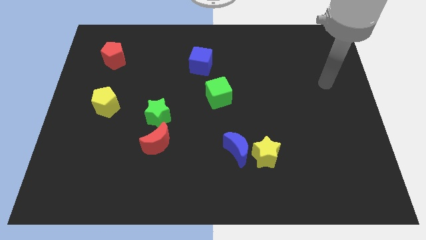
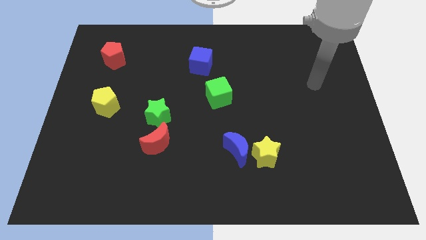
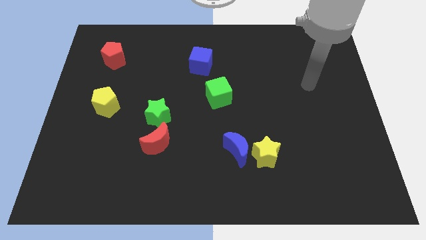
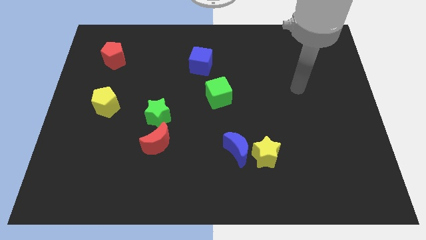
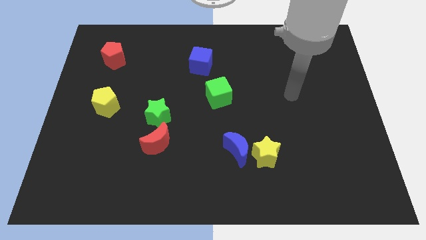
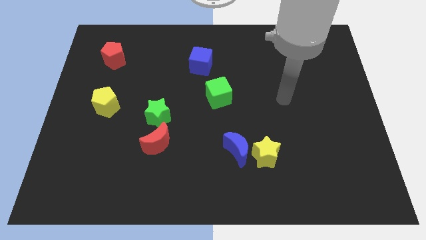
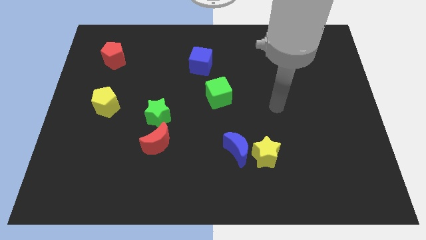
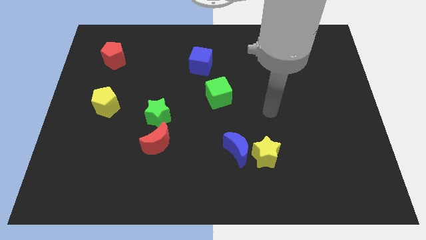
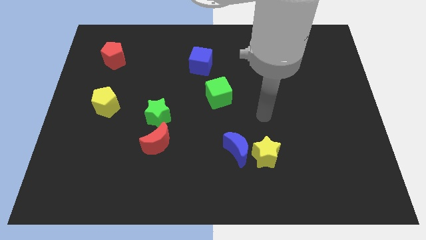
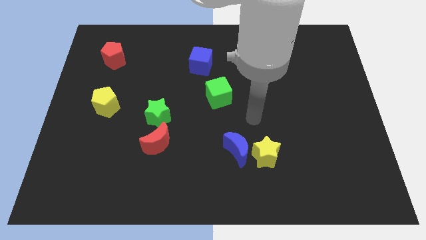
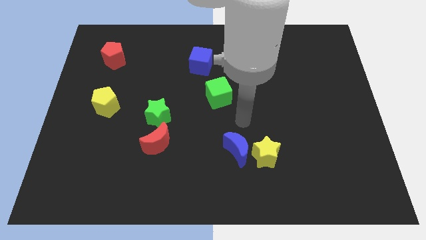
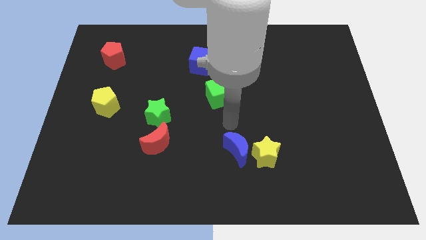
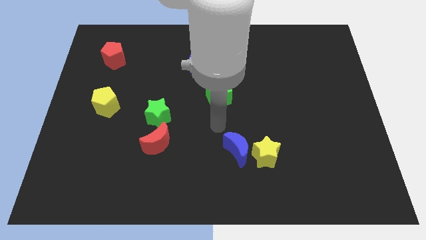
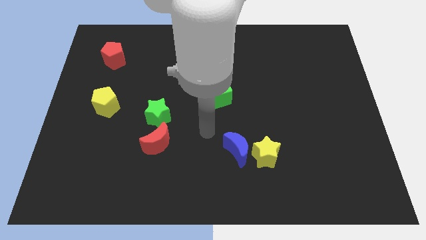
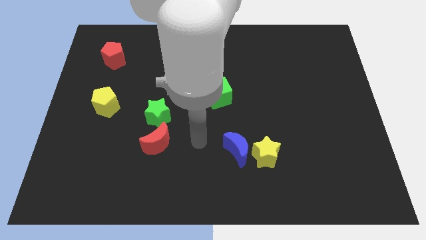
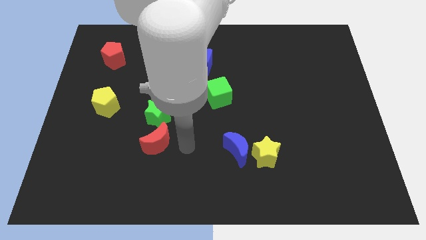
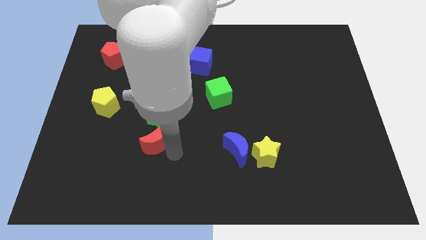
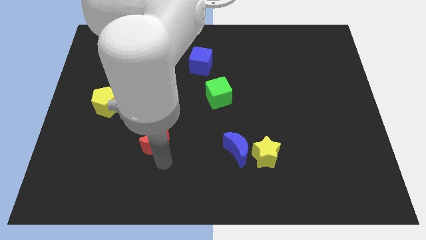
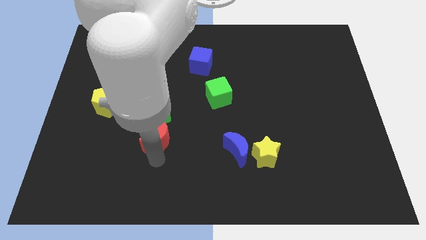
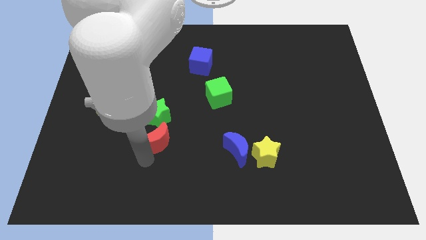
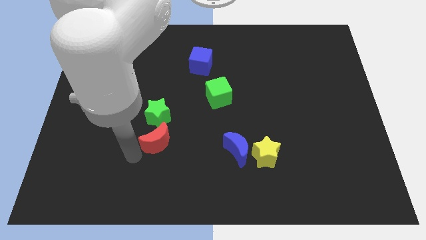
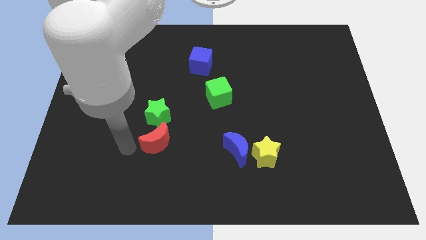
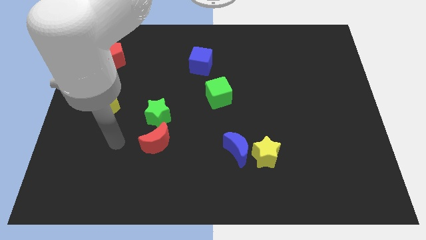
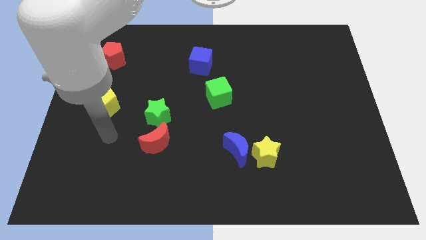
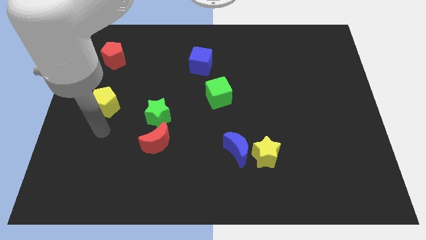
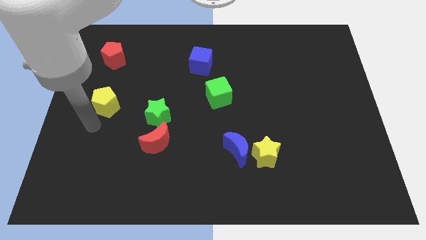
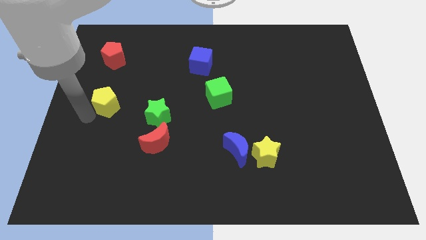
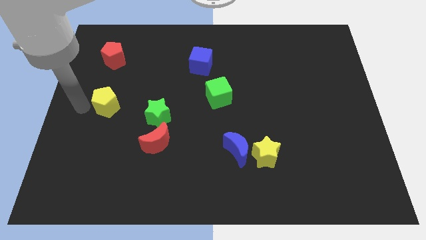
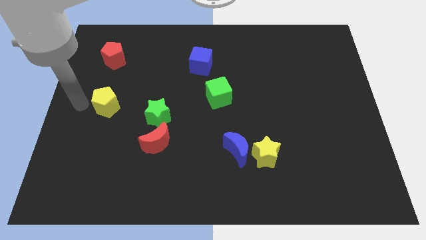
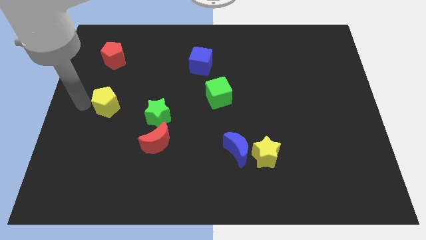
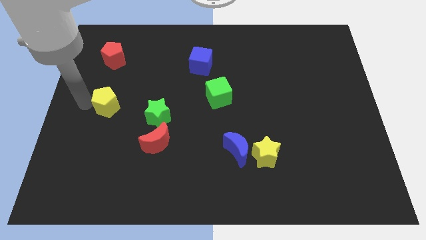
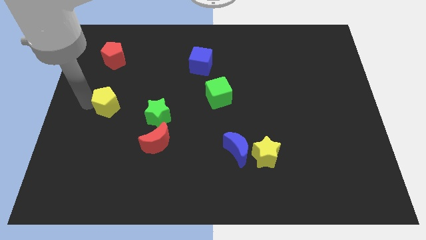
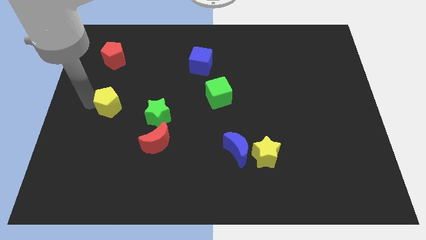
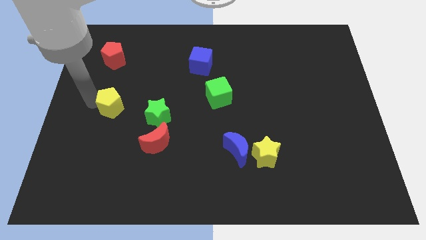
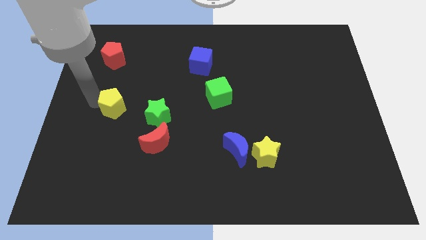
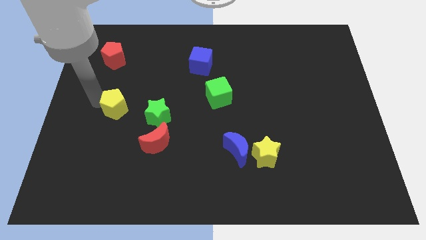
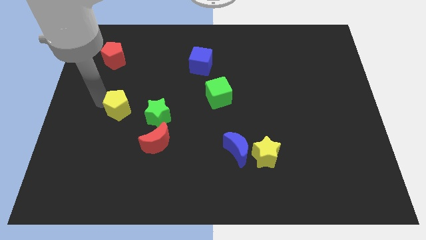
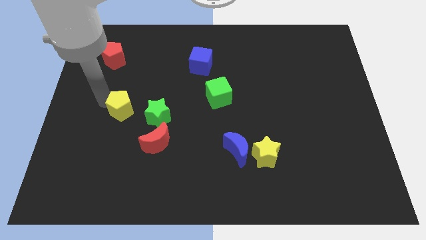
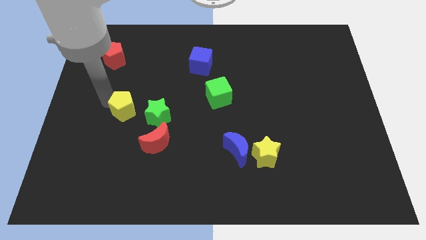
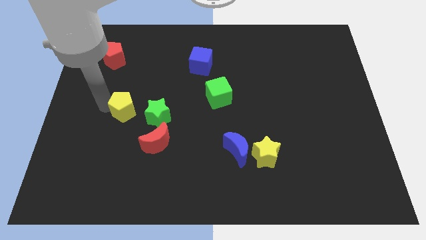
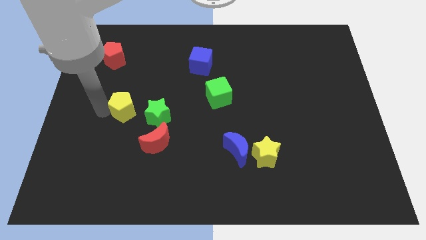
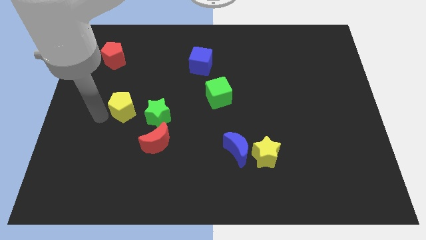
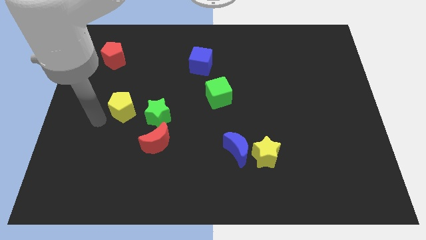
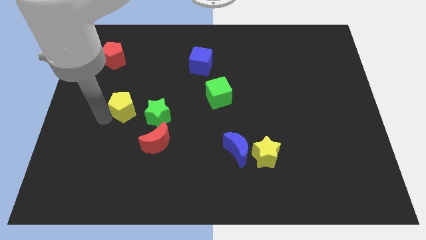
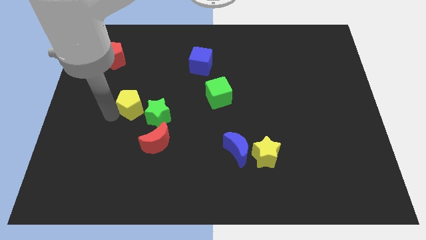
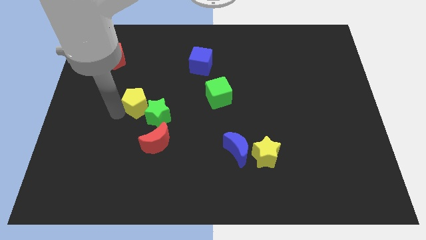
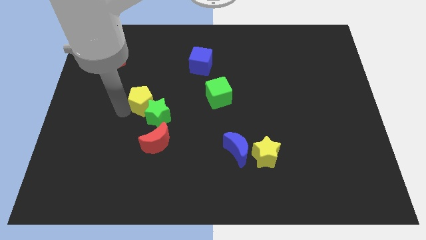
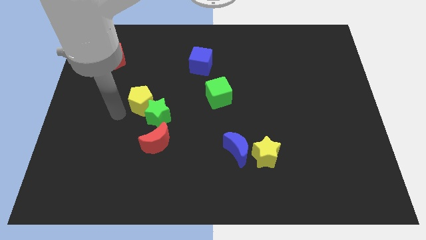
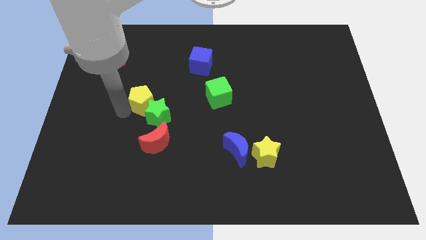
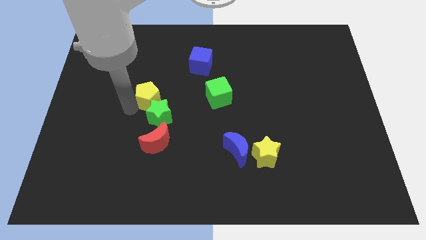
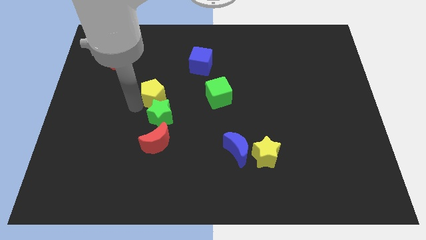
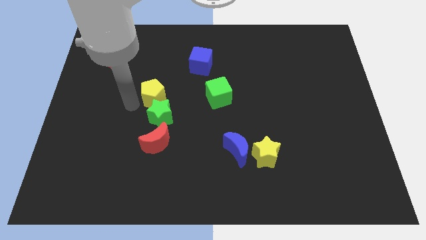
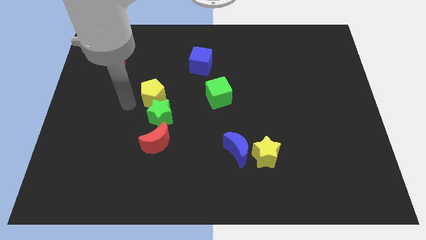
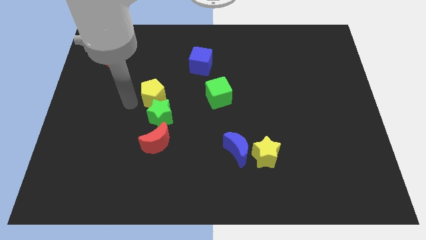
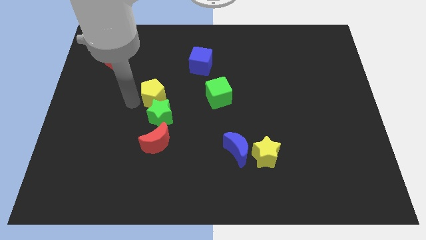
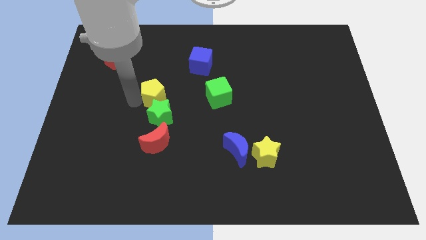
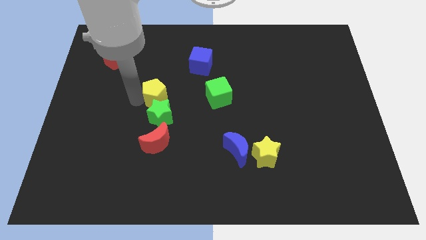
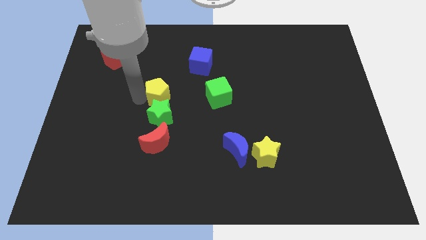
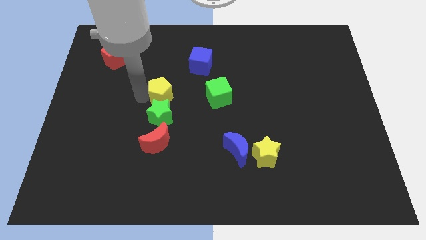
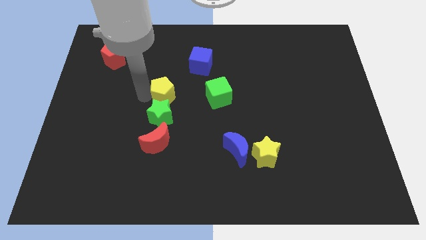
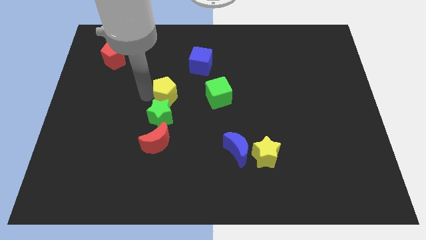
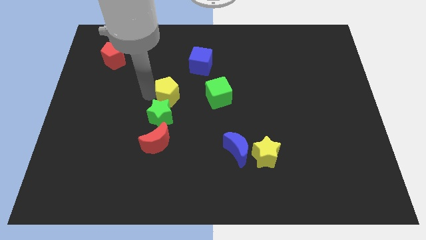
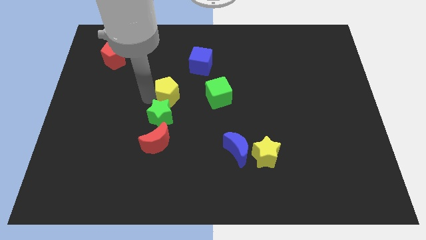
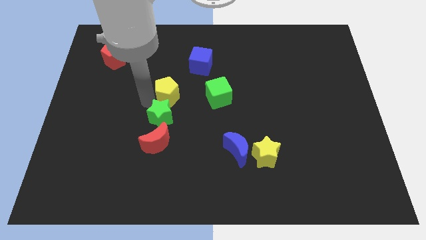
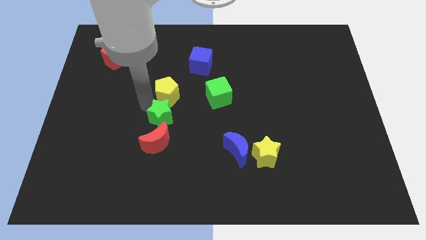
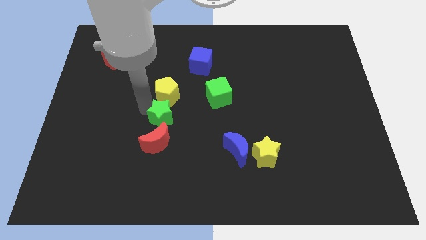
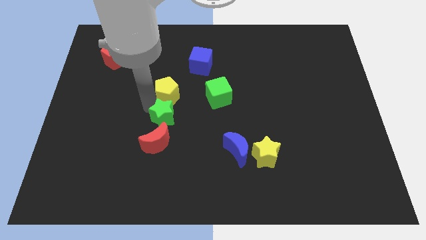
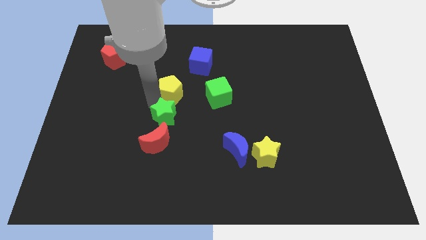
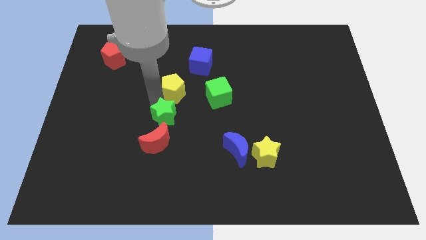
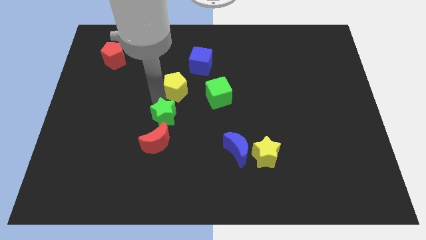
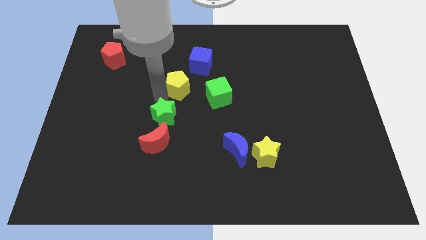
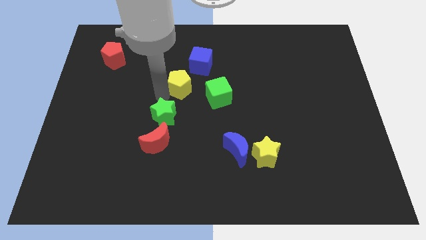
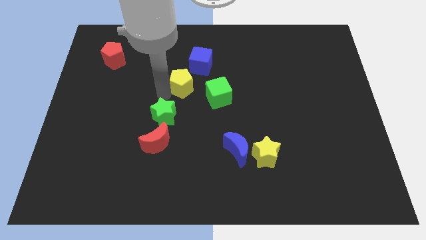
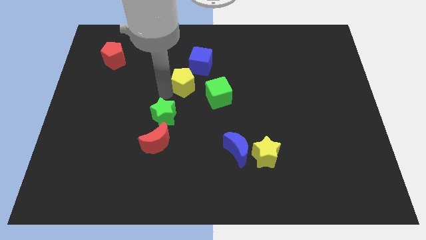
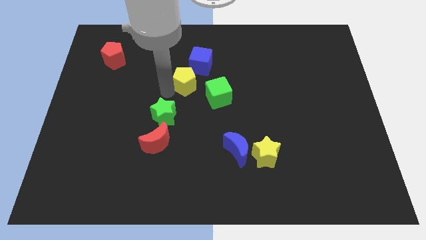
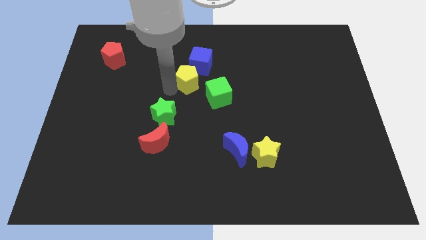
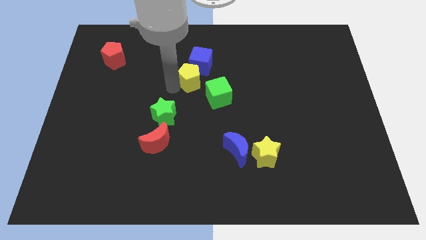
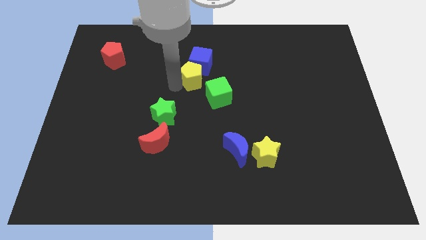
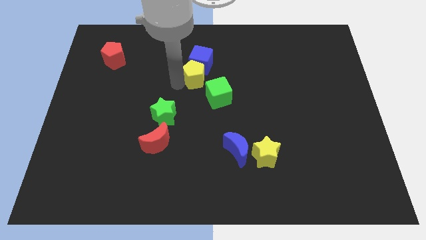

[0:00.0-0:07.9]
move the yellow pentagon diagonally down and to the right of the blue cube

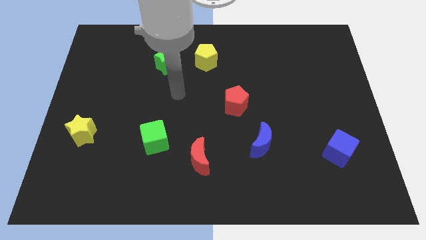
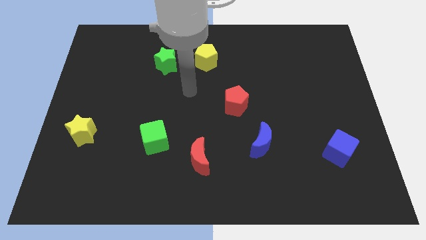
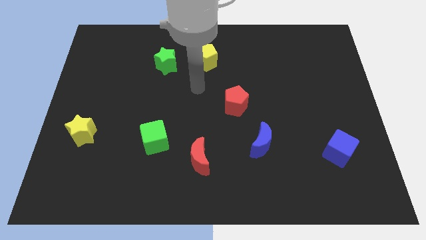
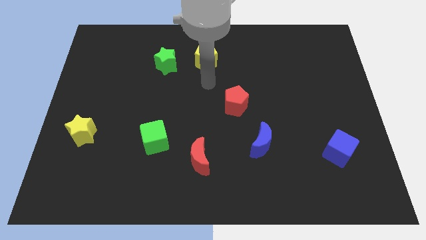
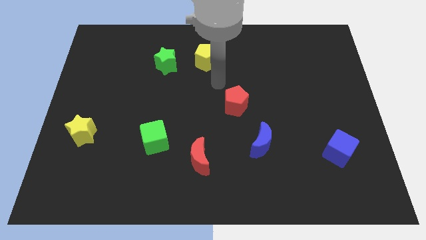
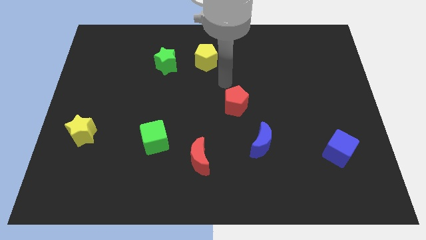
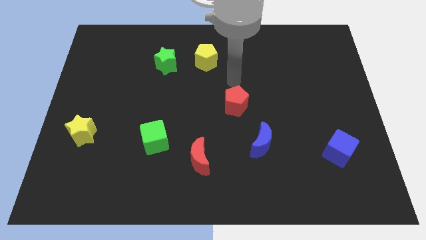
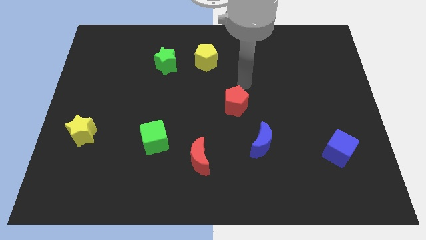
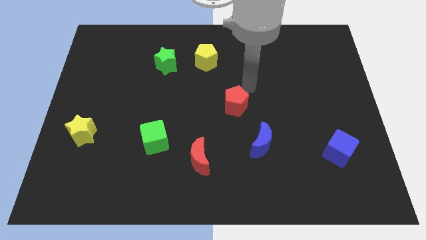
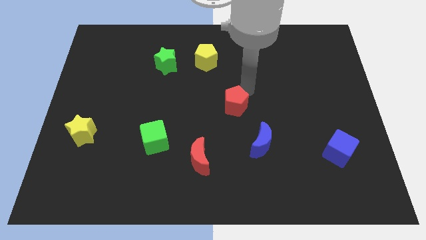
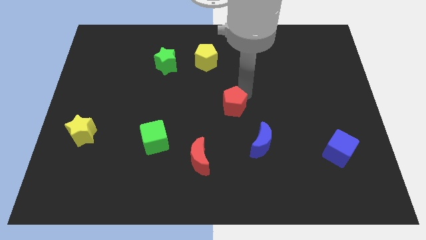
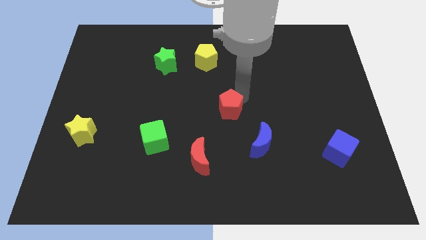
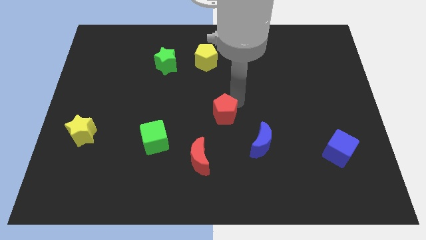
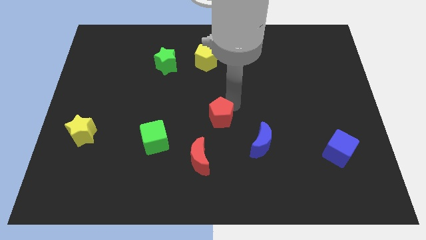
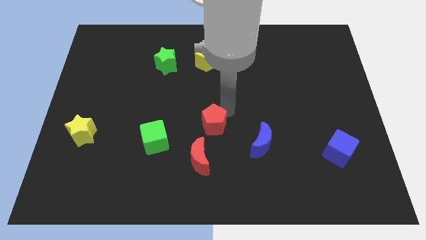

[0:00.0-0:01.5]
push the red pentagon just right of the green cube
